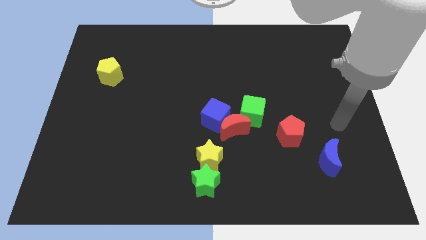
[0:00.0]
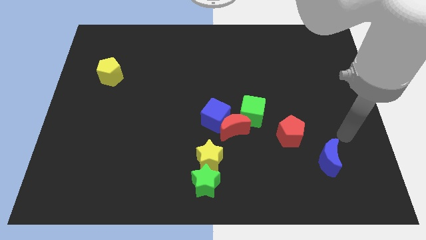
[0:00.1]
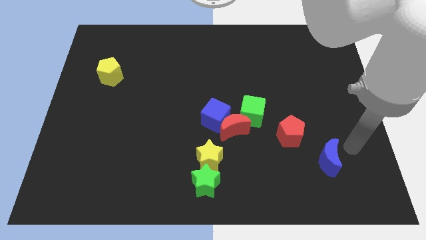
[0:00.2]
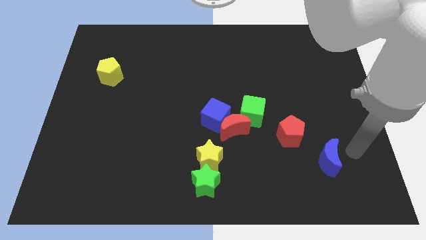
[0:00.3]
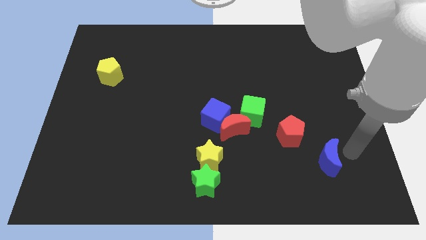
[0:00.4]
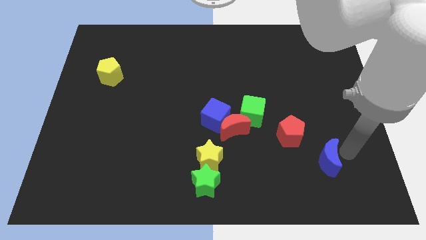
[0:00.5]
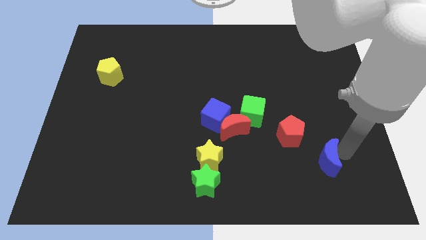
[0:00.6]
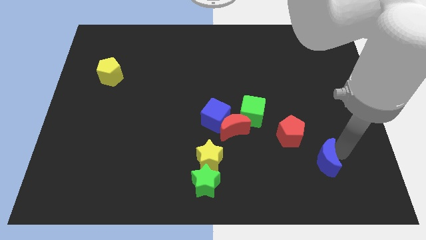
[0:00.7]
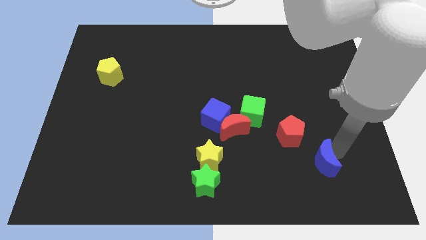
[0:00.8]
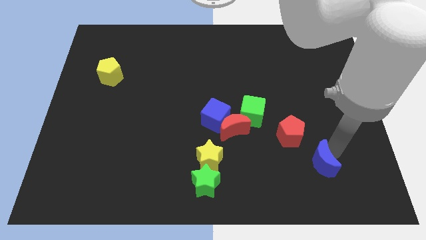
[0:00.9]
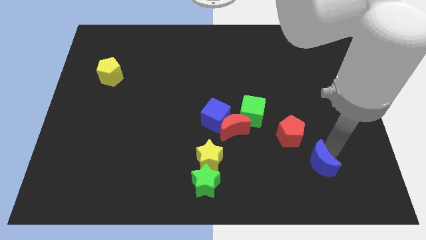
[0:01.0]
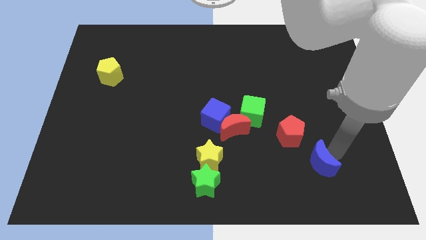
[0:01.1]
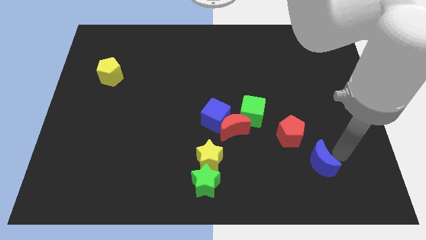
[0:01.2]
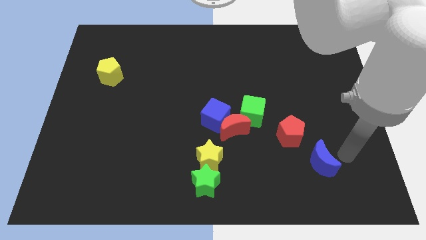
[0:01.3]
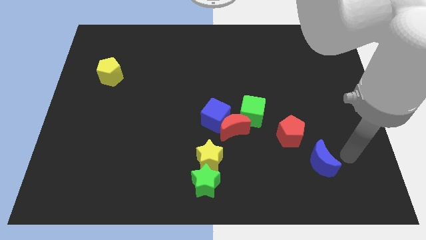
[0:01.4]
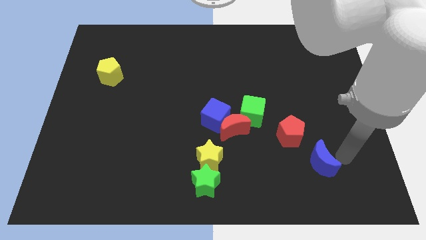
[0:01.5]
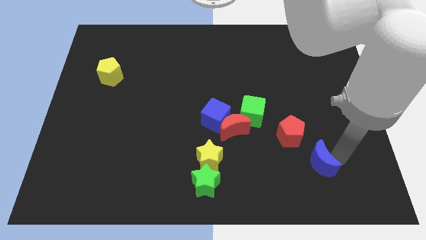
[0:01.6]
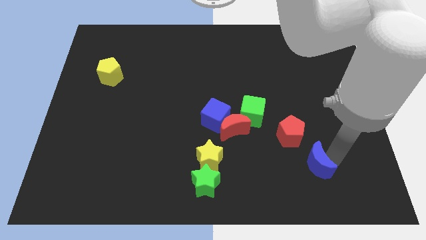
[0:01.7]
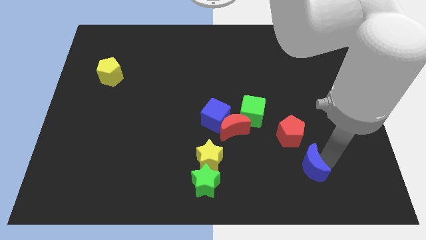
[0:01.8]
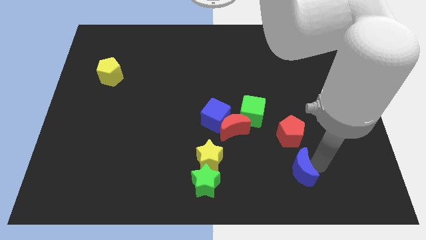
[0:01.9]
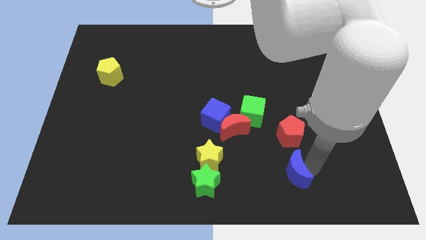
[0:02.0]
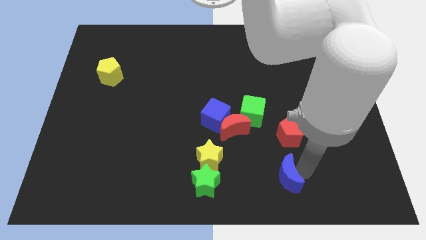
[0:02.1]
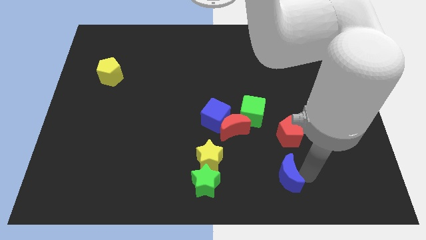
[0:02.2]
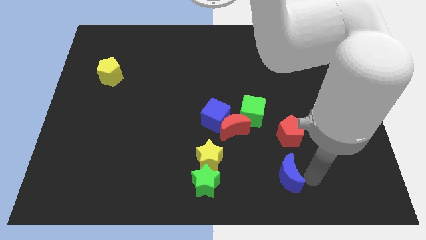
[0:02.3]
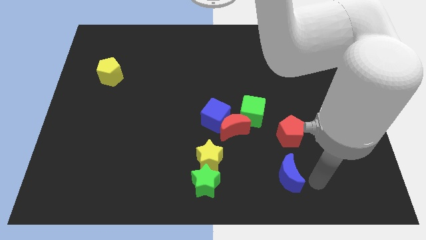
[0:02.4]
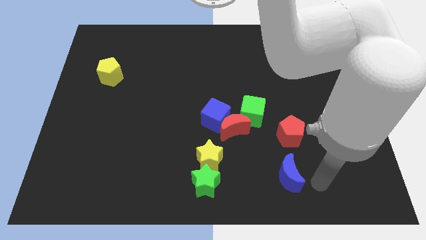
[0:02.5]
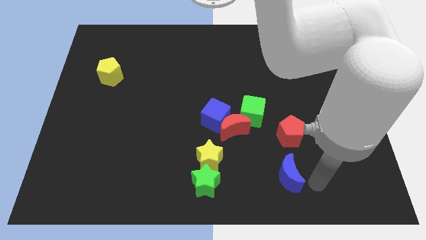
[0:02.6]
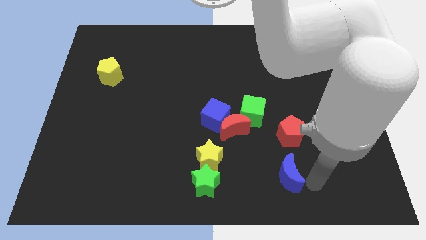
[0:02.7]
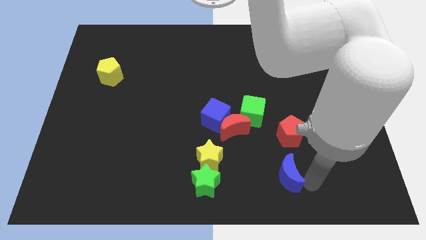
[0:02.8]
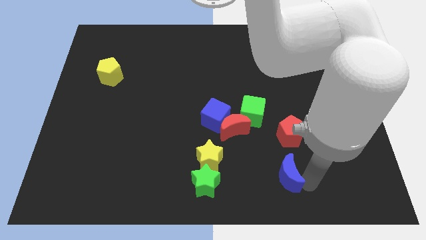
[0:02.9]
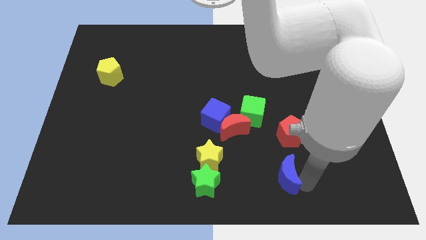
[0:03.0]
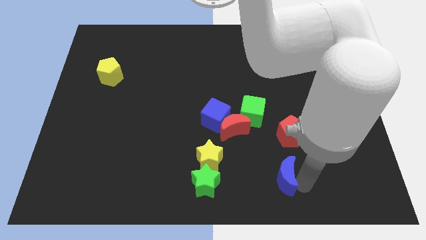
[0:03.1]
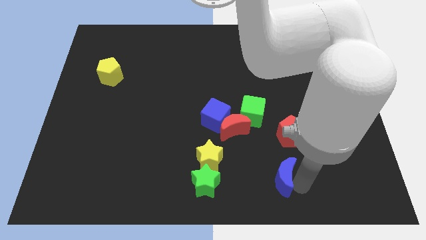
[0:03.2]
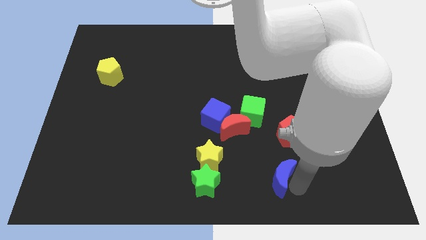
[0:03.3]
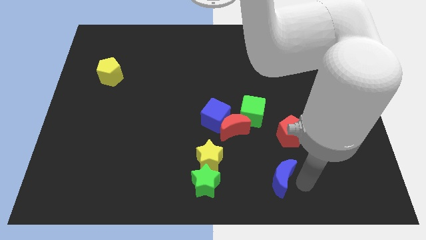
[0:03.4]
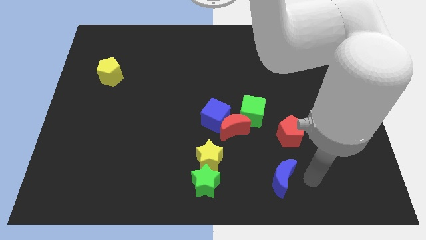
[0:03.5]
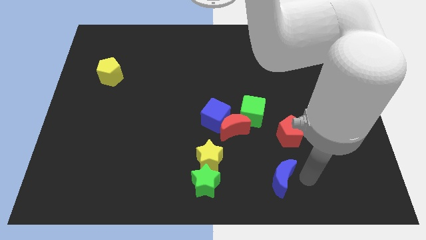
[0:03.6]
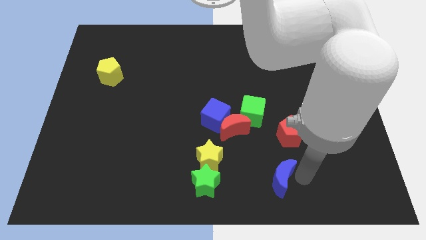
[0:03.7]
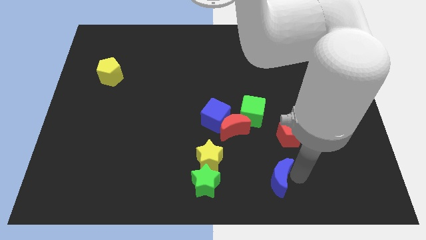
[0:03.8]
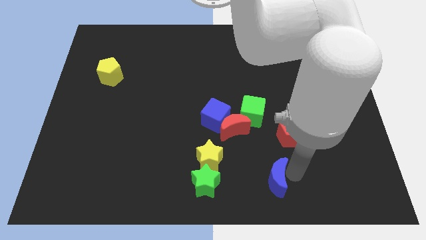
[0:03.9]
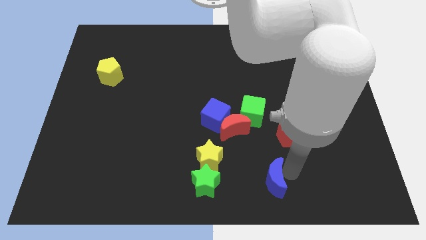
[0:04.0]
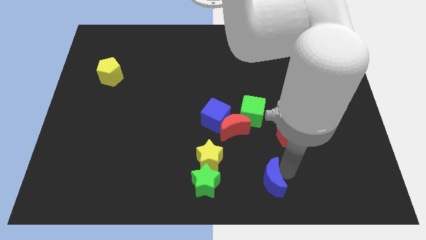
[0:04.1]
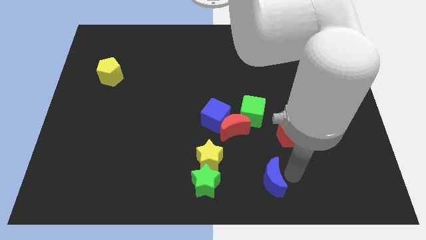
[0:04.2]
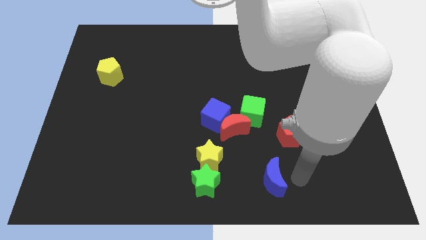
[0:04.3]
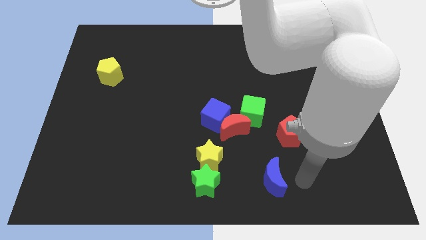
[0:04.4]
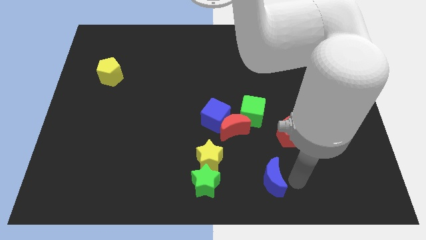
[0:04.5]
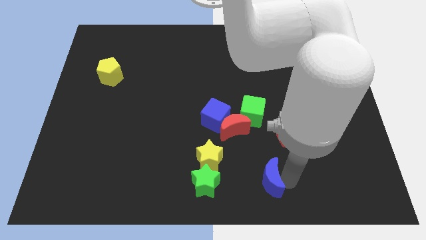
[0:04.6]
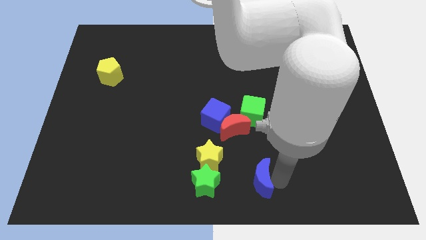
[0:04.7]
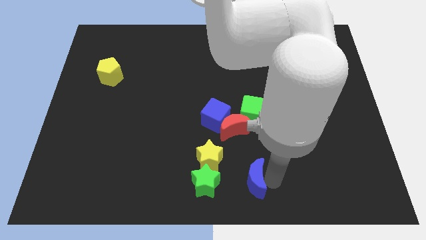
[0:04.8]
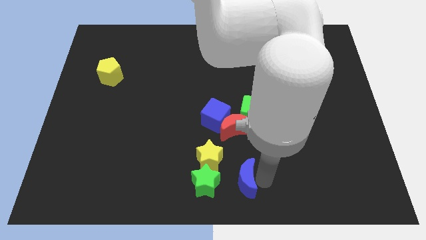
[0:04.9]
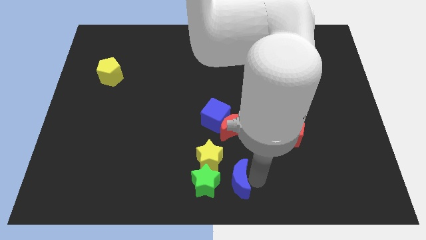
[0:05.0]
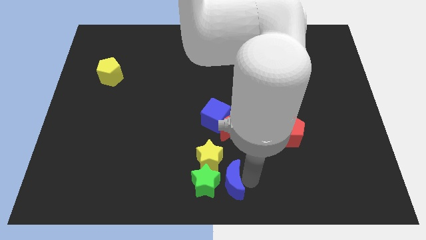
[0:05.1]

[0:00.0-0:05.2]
put the blue moon close to the green star

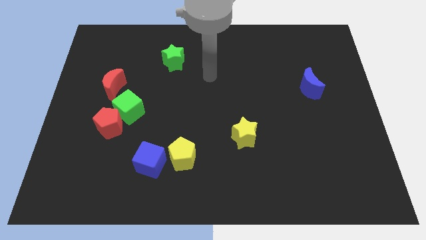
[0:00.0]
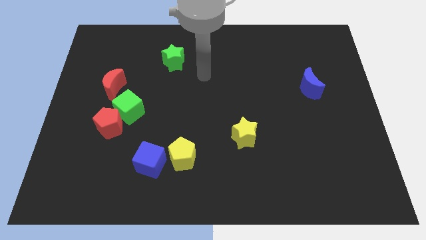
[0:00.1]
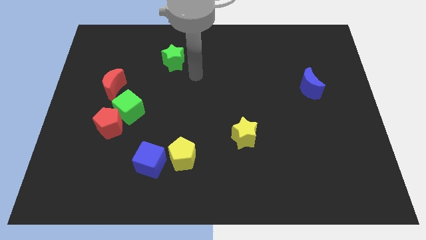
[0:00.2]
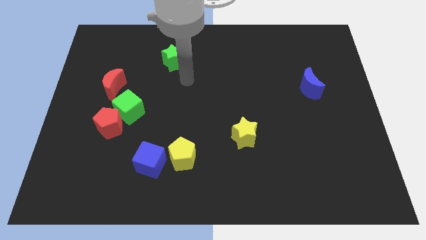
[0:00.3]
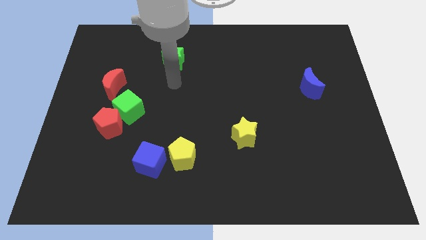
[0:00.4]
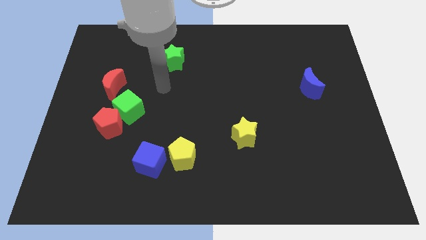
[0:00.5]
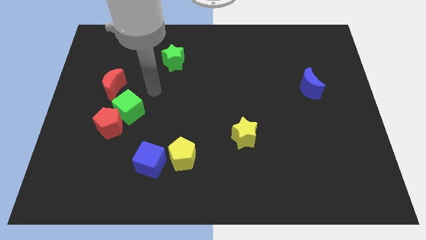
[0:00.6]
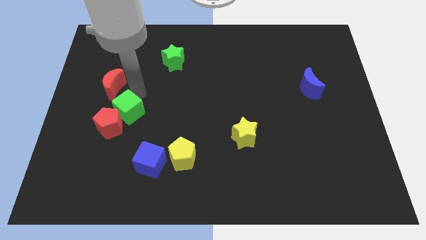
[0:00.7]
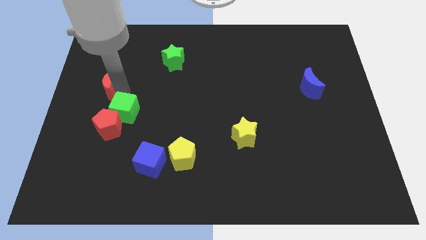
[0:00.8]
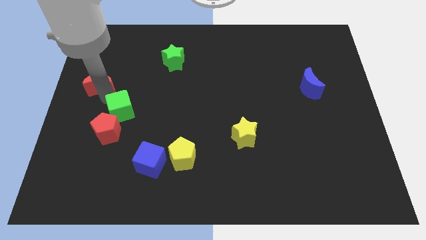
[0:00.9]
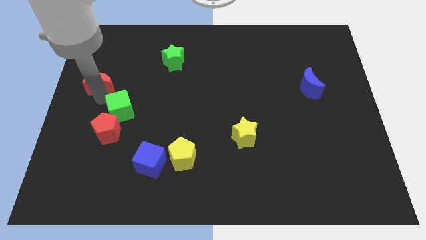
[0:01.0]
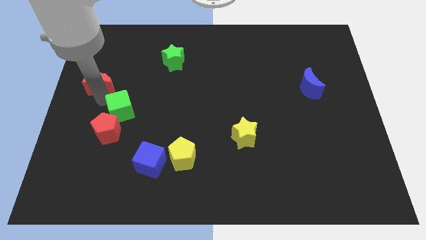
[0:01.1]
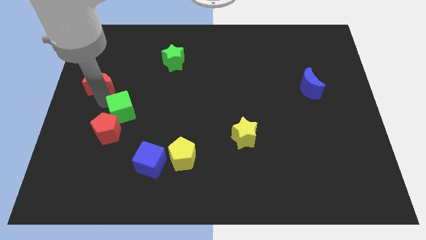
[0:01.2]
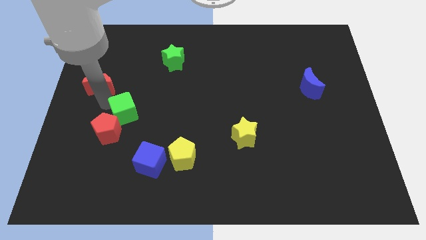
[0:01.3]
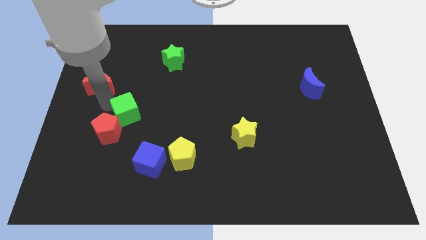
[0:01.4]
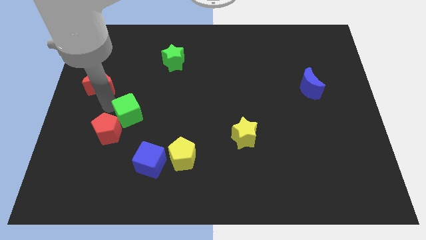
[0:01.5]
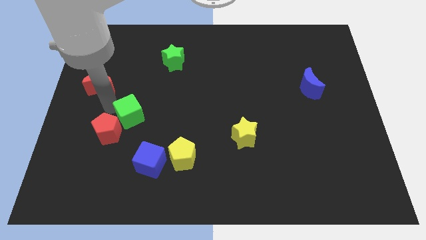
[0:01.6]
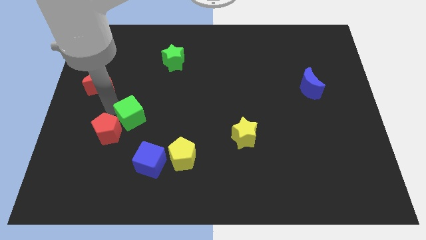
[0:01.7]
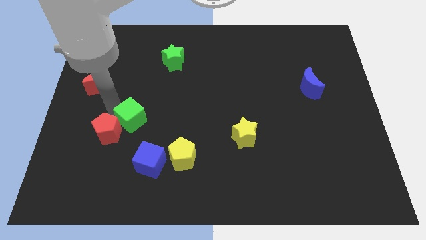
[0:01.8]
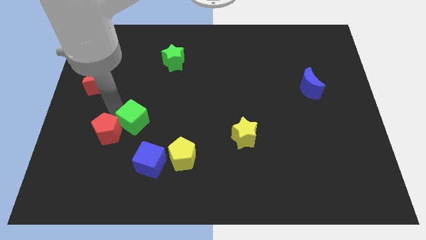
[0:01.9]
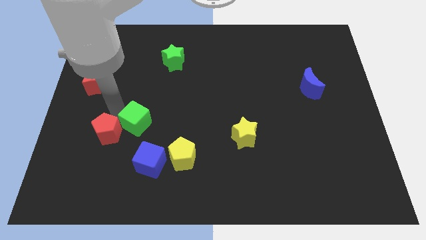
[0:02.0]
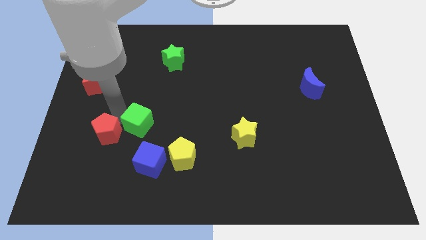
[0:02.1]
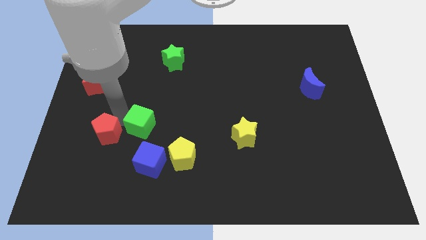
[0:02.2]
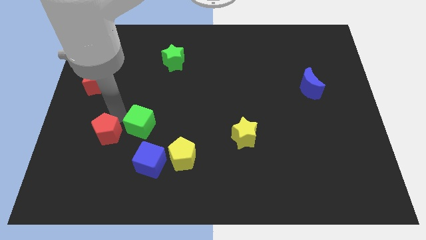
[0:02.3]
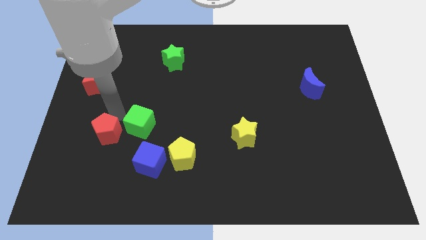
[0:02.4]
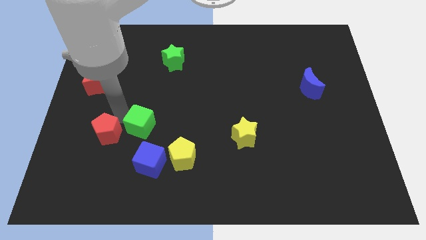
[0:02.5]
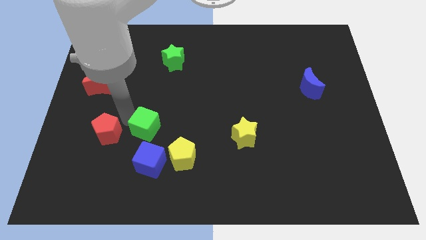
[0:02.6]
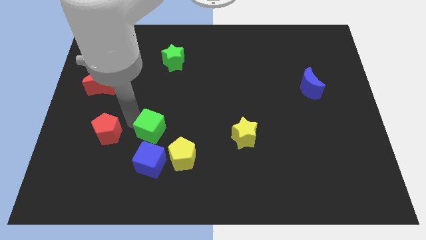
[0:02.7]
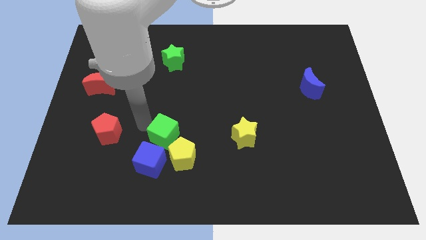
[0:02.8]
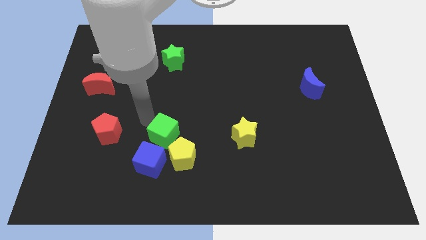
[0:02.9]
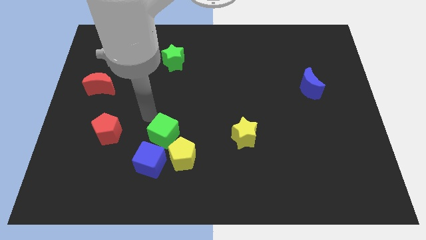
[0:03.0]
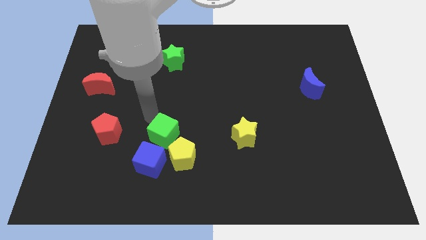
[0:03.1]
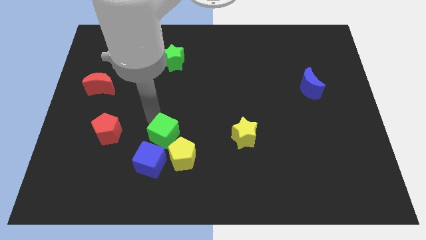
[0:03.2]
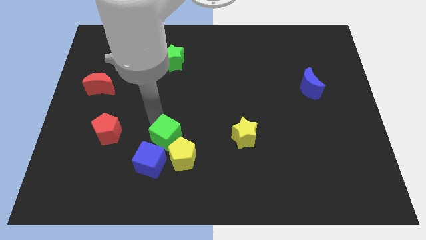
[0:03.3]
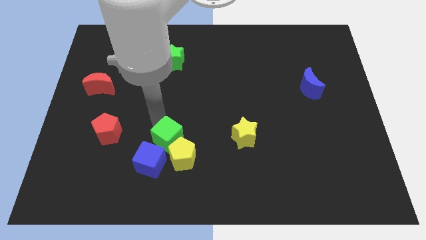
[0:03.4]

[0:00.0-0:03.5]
slide the green cube to the yellow pentagon
